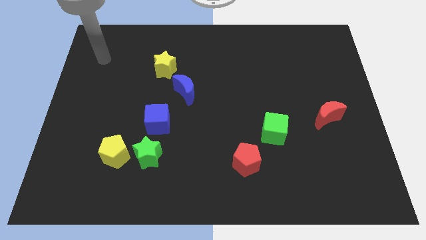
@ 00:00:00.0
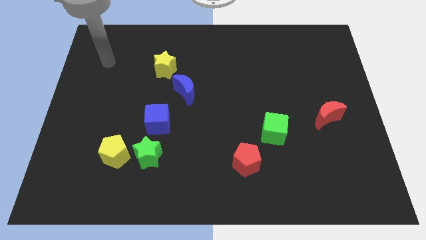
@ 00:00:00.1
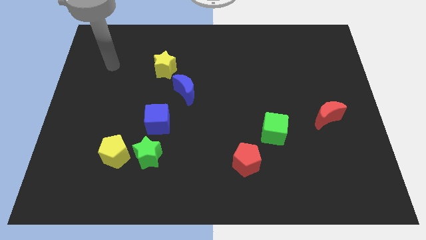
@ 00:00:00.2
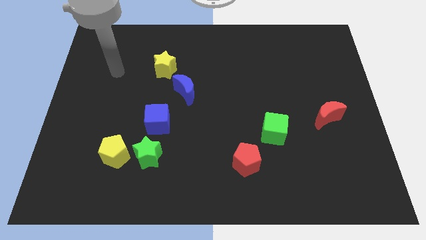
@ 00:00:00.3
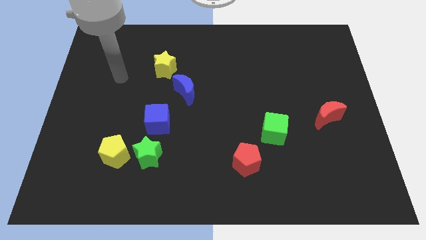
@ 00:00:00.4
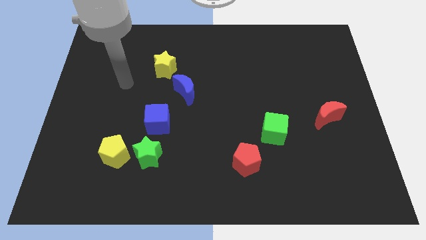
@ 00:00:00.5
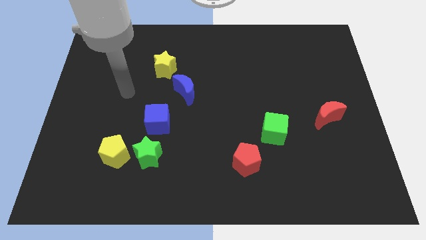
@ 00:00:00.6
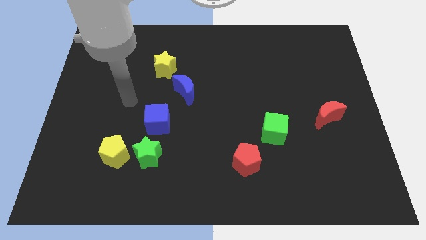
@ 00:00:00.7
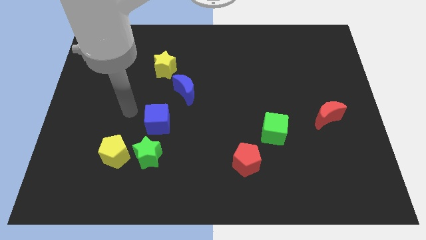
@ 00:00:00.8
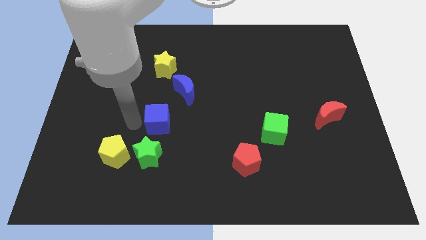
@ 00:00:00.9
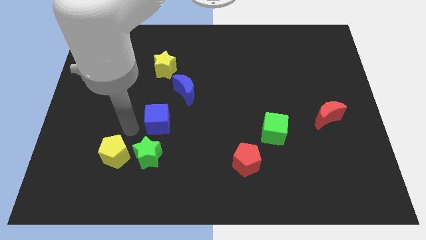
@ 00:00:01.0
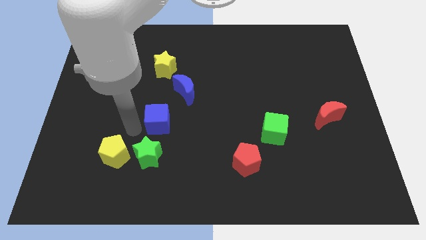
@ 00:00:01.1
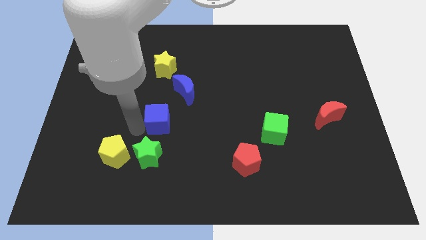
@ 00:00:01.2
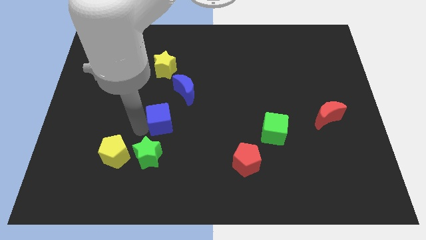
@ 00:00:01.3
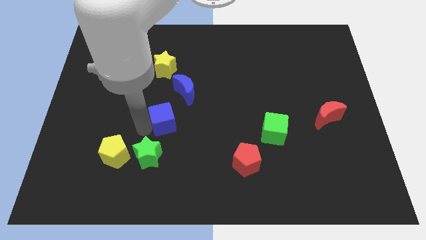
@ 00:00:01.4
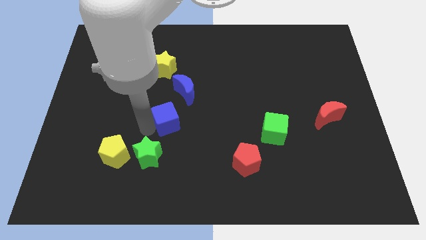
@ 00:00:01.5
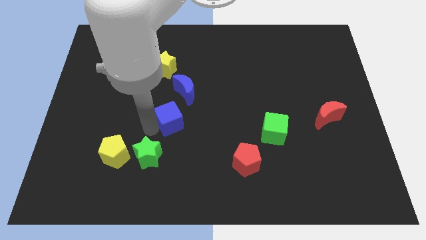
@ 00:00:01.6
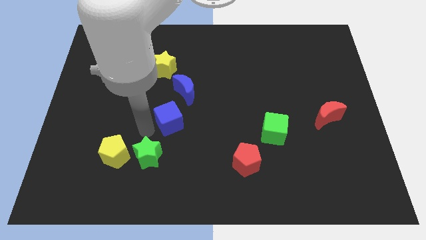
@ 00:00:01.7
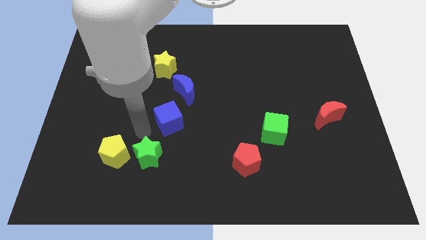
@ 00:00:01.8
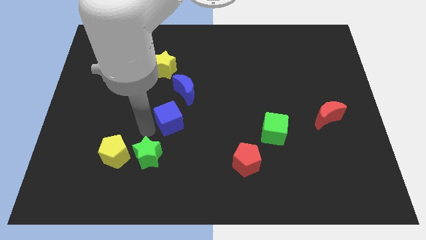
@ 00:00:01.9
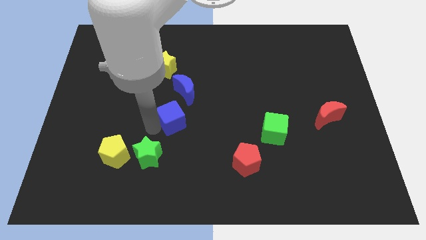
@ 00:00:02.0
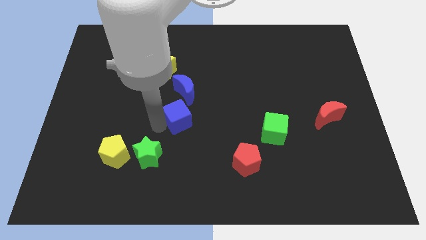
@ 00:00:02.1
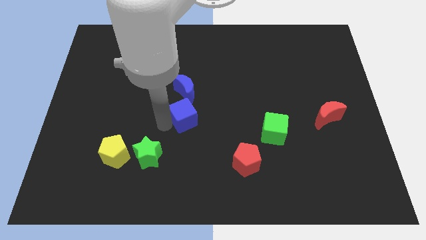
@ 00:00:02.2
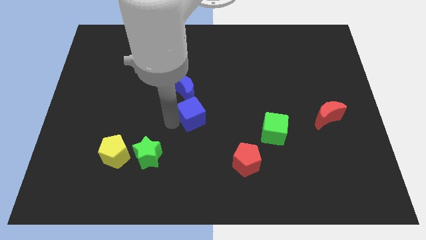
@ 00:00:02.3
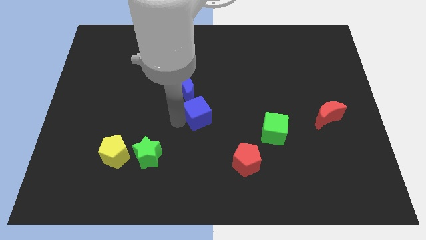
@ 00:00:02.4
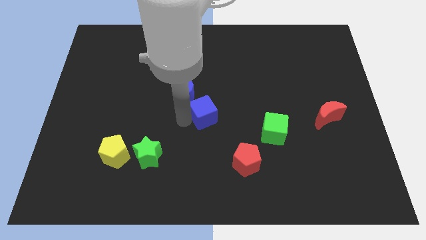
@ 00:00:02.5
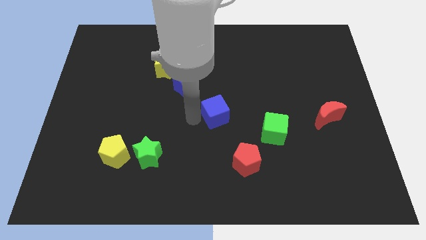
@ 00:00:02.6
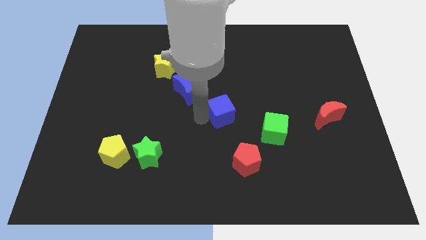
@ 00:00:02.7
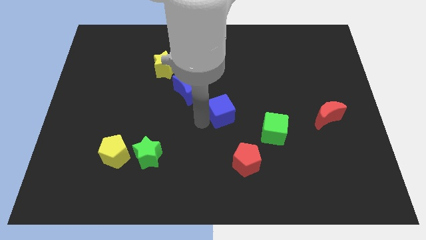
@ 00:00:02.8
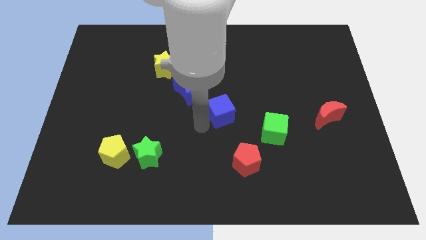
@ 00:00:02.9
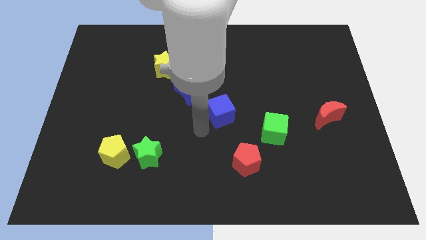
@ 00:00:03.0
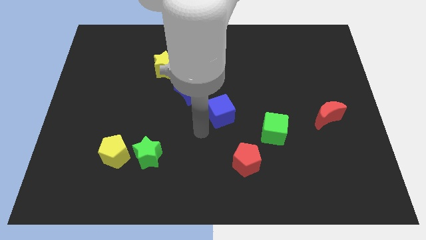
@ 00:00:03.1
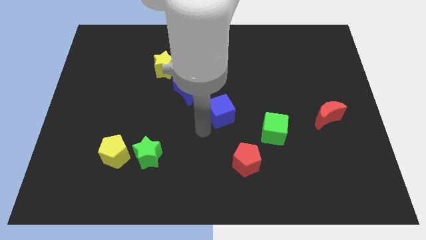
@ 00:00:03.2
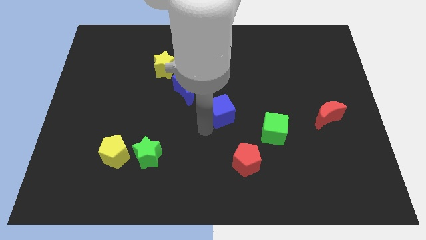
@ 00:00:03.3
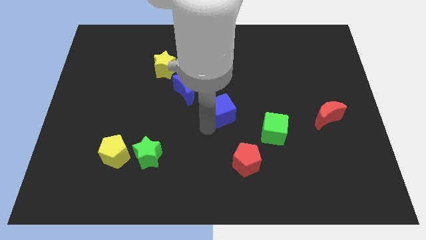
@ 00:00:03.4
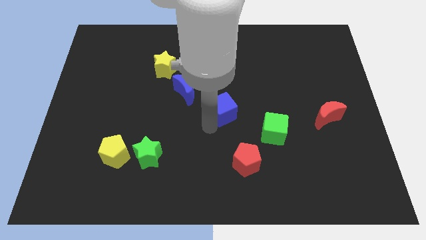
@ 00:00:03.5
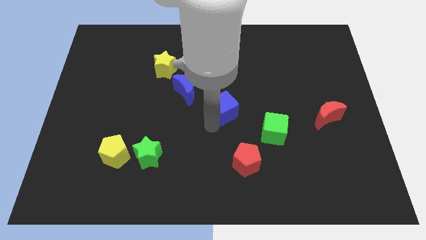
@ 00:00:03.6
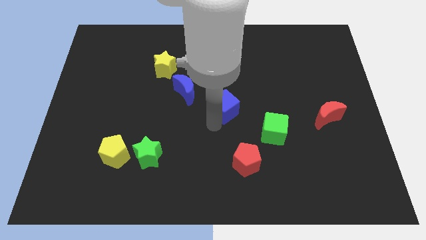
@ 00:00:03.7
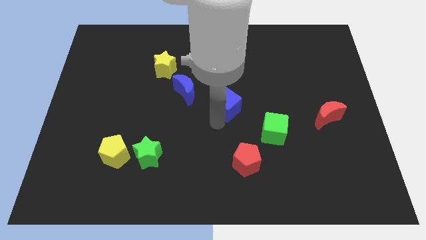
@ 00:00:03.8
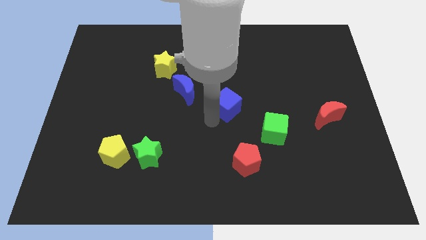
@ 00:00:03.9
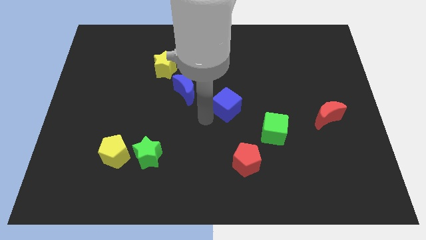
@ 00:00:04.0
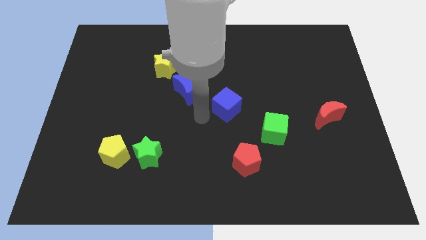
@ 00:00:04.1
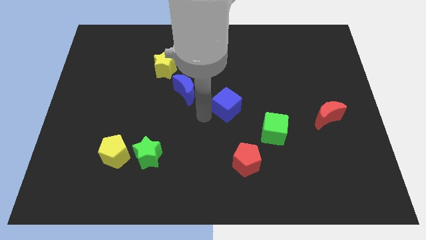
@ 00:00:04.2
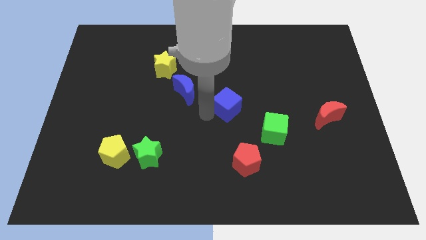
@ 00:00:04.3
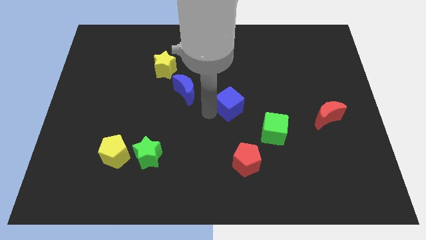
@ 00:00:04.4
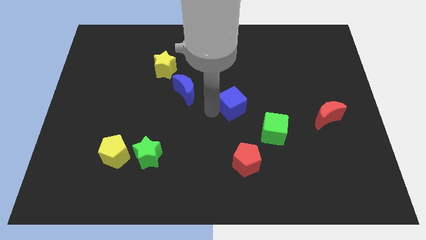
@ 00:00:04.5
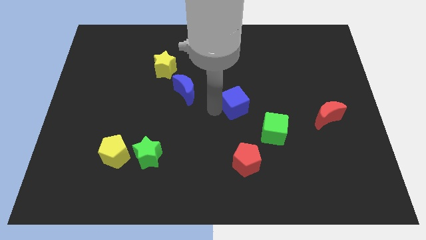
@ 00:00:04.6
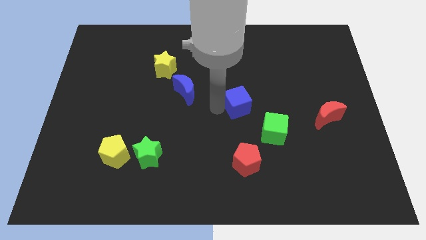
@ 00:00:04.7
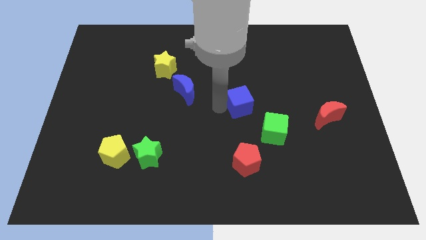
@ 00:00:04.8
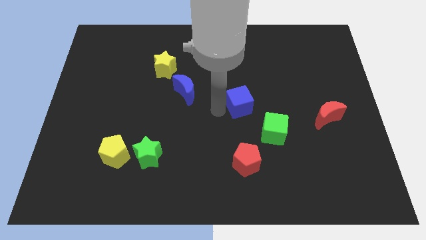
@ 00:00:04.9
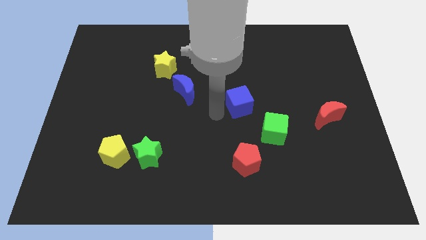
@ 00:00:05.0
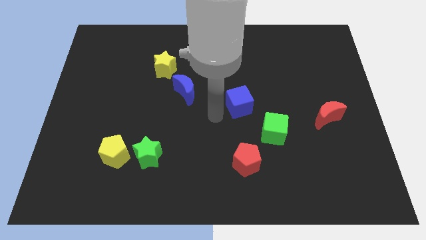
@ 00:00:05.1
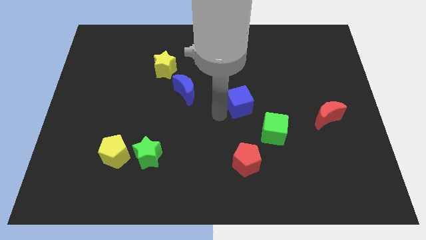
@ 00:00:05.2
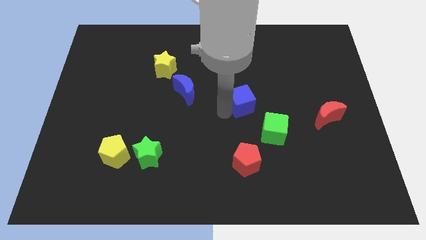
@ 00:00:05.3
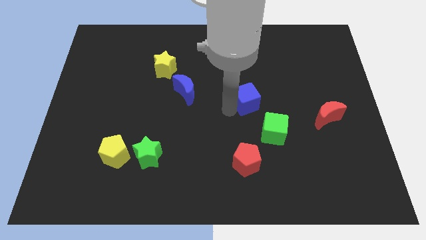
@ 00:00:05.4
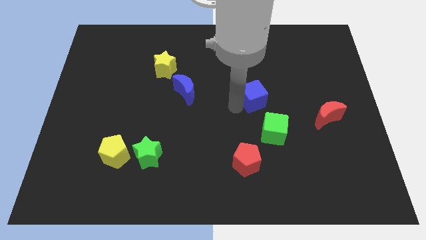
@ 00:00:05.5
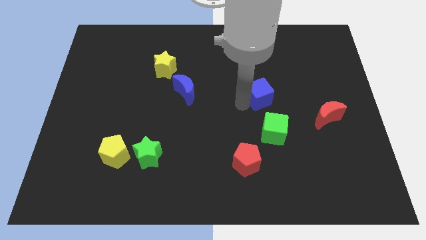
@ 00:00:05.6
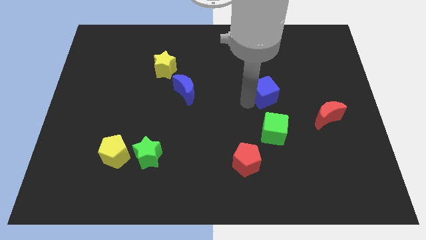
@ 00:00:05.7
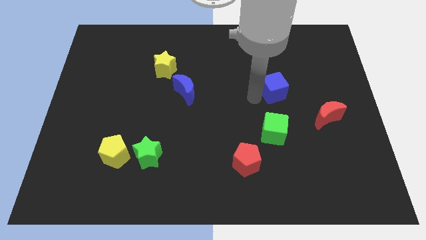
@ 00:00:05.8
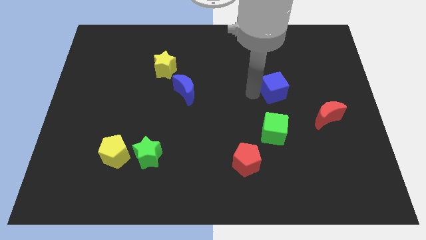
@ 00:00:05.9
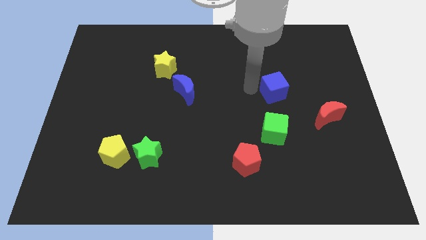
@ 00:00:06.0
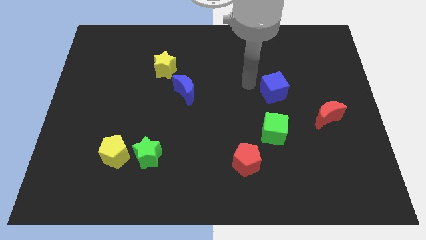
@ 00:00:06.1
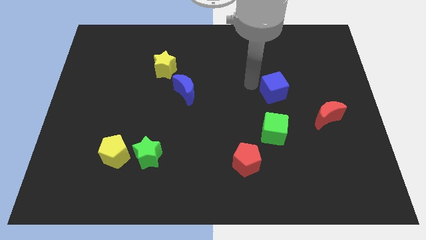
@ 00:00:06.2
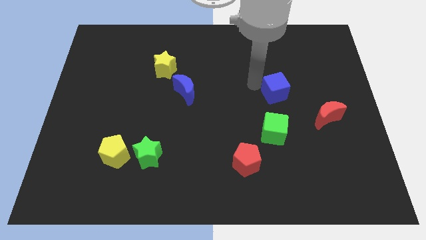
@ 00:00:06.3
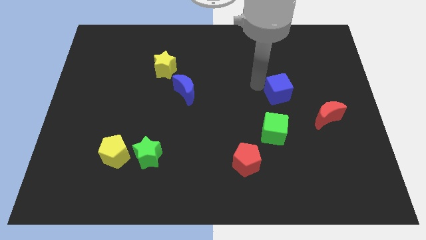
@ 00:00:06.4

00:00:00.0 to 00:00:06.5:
slide the blue cube to the top left side of the red moon

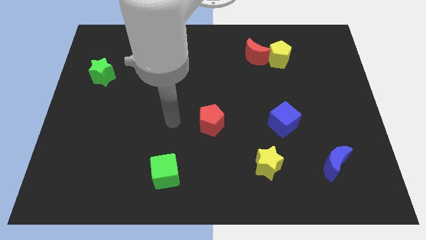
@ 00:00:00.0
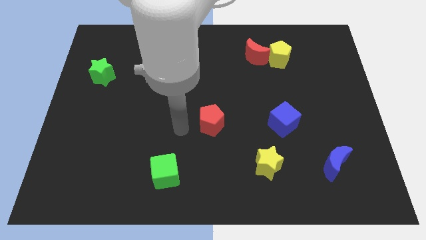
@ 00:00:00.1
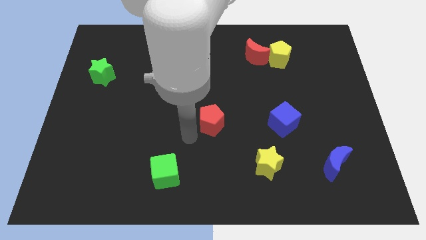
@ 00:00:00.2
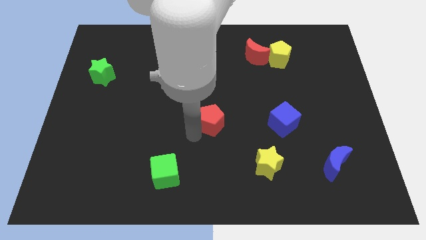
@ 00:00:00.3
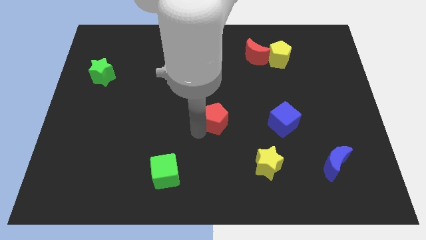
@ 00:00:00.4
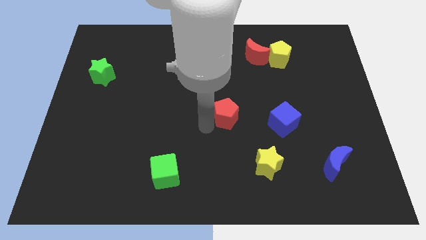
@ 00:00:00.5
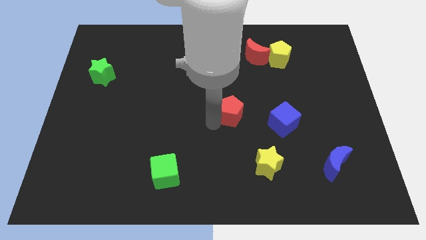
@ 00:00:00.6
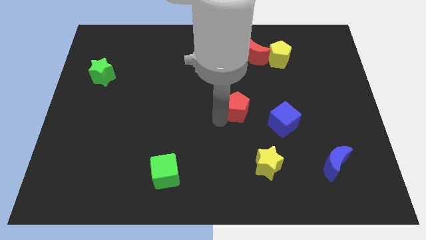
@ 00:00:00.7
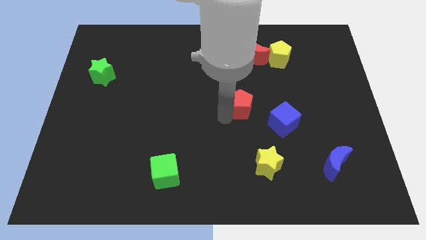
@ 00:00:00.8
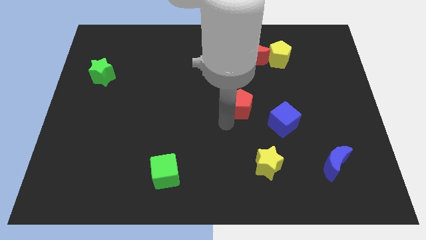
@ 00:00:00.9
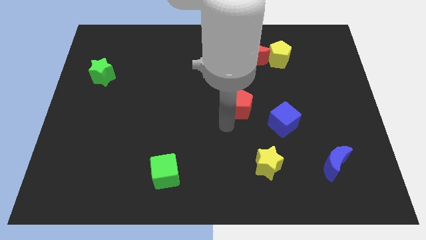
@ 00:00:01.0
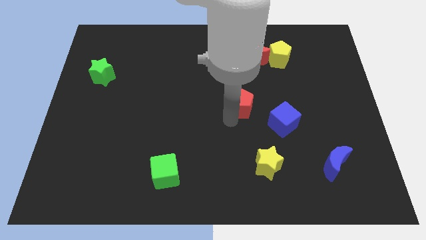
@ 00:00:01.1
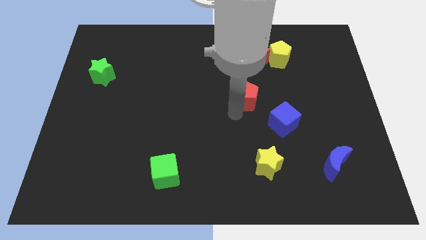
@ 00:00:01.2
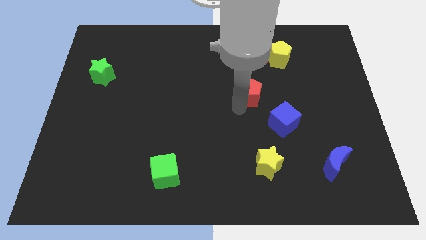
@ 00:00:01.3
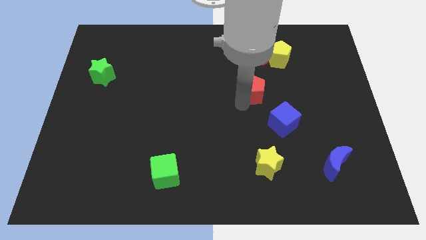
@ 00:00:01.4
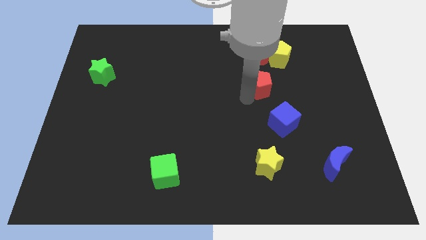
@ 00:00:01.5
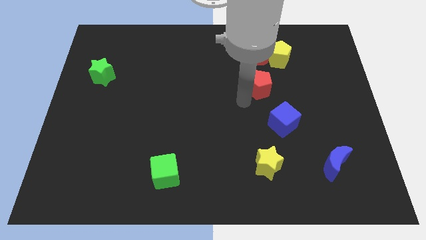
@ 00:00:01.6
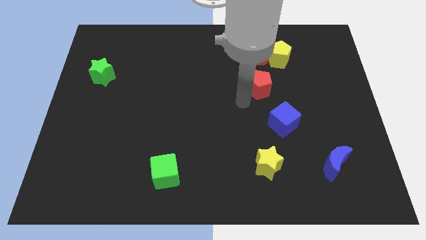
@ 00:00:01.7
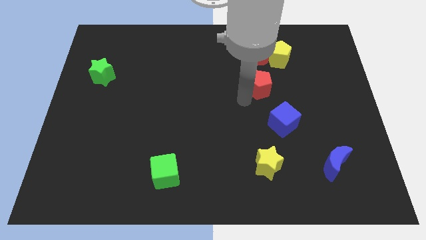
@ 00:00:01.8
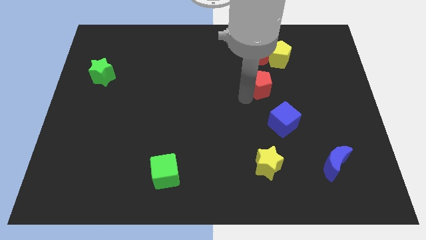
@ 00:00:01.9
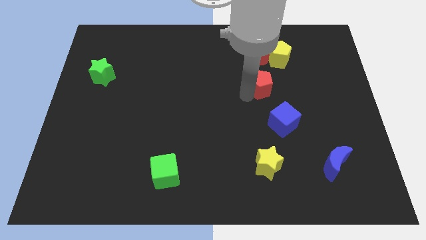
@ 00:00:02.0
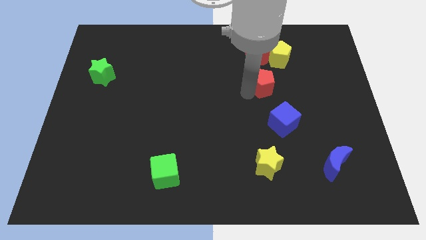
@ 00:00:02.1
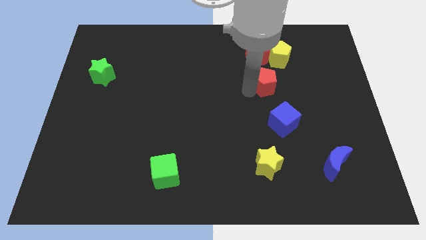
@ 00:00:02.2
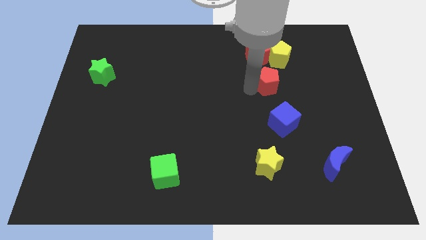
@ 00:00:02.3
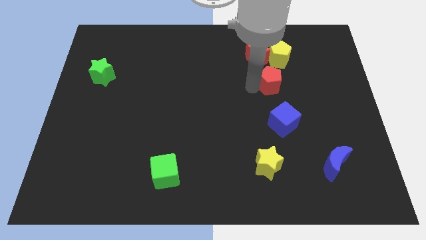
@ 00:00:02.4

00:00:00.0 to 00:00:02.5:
push the red pentagon to the bottom right of the red moon
